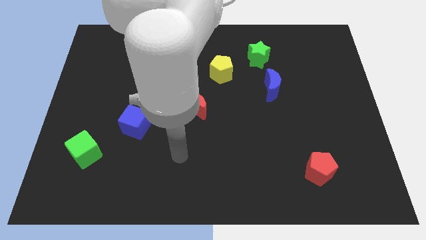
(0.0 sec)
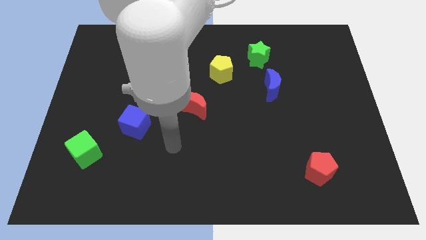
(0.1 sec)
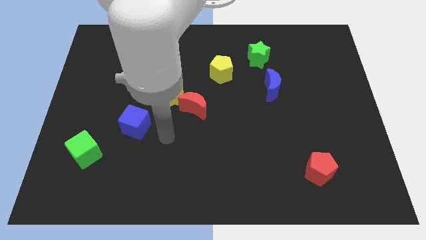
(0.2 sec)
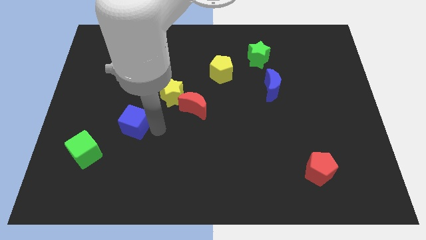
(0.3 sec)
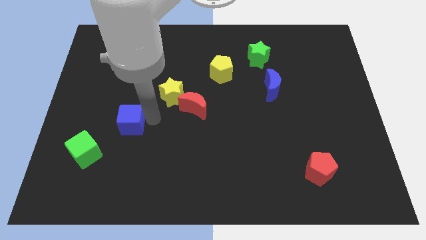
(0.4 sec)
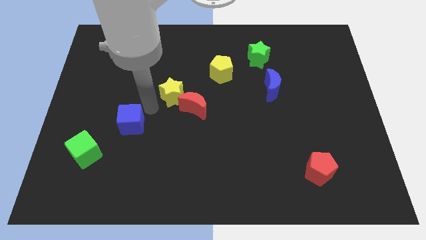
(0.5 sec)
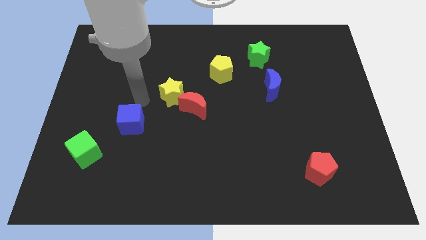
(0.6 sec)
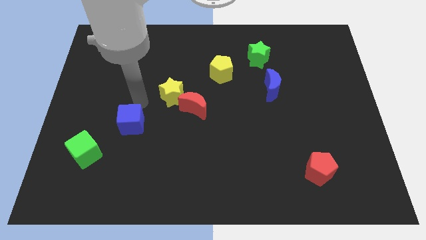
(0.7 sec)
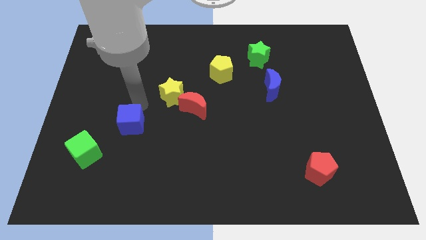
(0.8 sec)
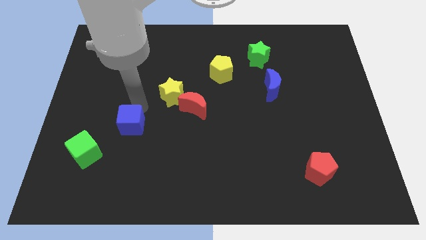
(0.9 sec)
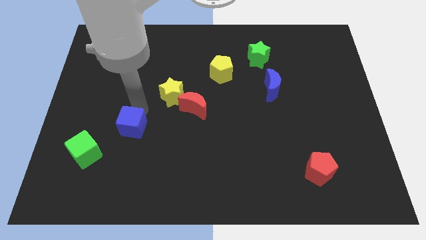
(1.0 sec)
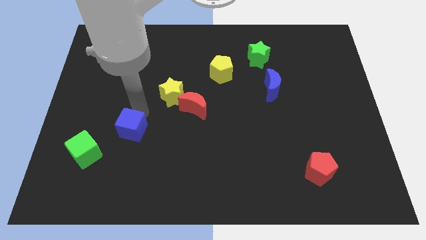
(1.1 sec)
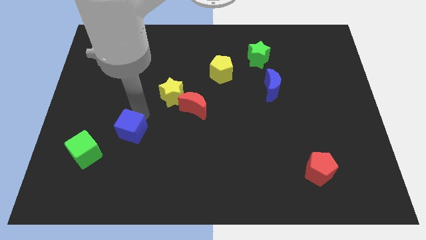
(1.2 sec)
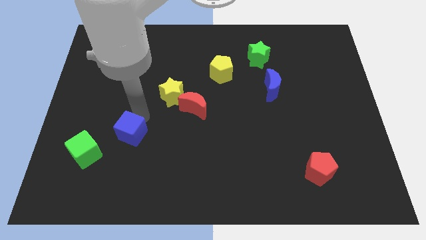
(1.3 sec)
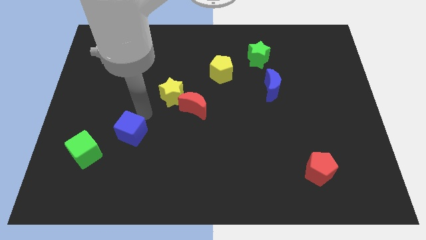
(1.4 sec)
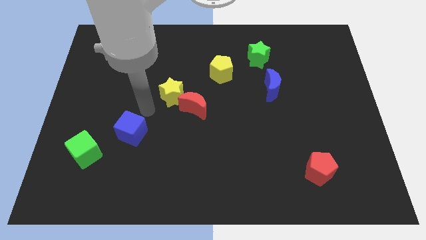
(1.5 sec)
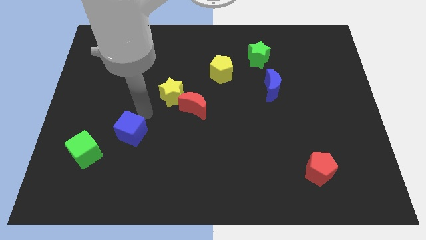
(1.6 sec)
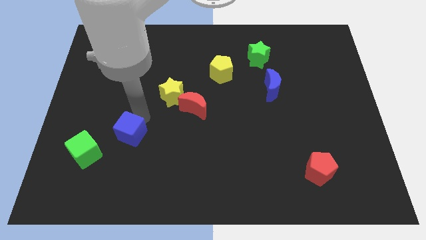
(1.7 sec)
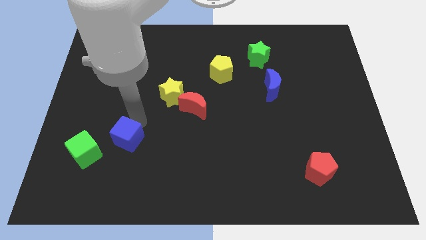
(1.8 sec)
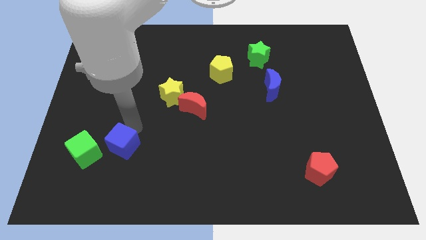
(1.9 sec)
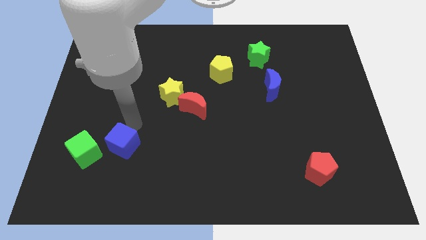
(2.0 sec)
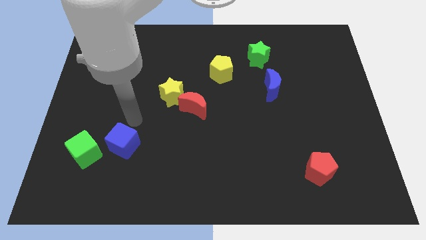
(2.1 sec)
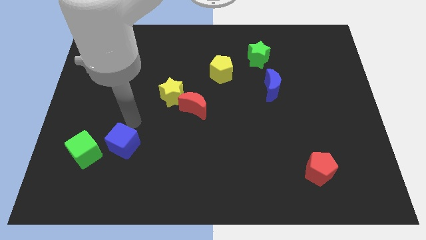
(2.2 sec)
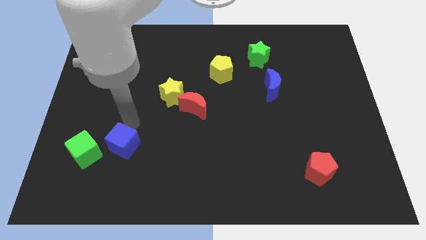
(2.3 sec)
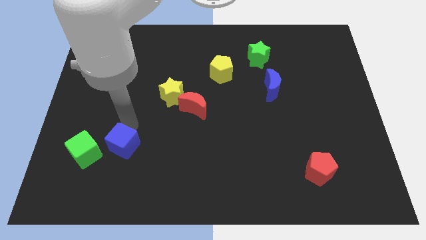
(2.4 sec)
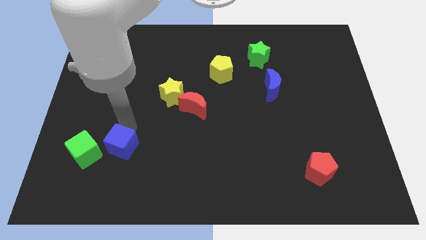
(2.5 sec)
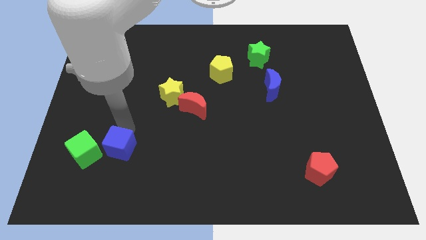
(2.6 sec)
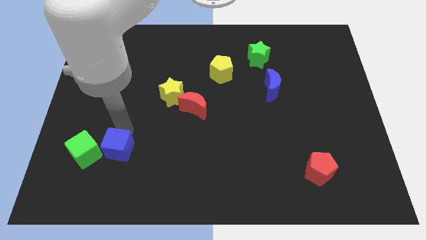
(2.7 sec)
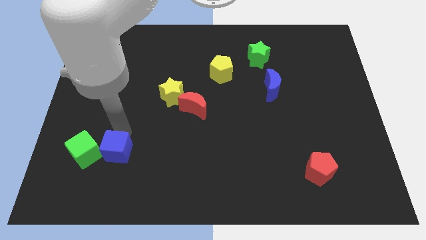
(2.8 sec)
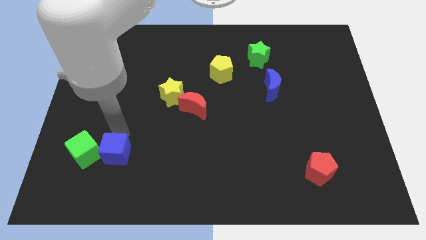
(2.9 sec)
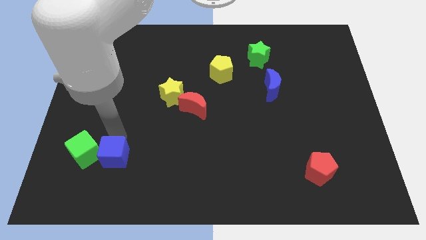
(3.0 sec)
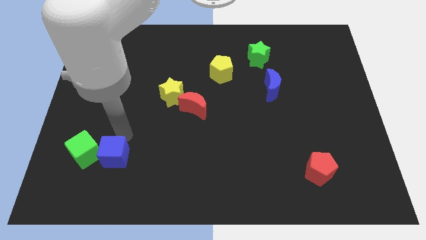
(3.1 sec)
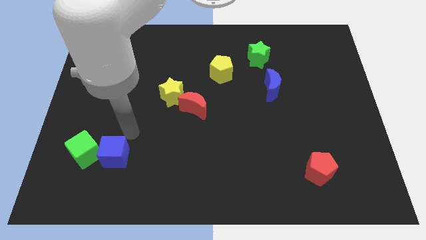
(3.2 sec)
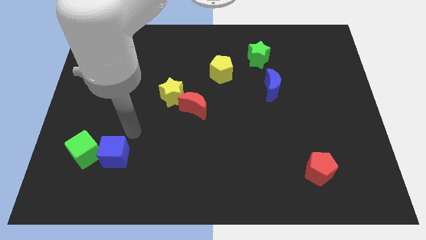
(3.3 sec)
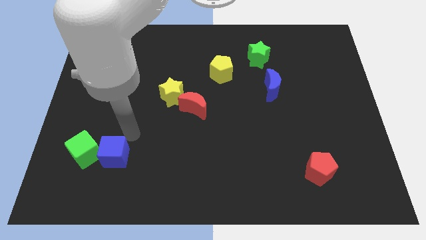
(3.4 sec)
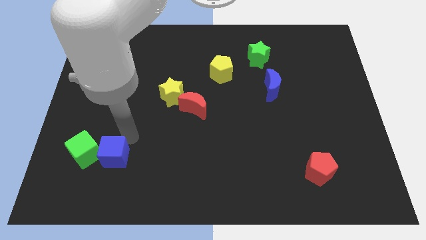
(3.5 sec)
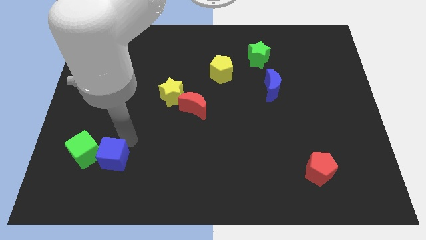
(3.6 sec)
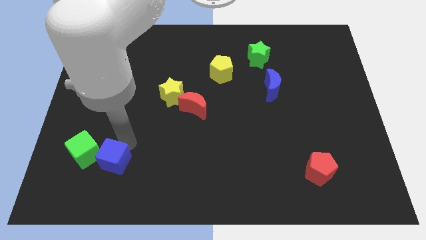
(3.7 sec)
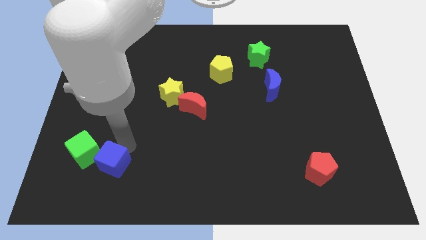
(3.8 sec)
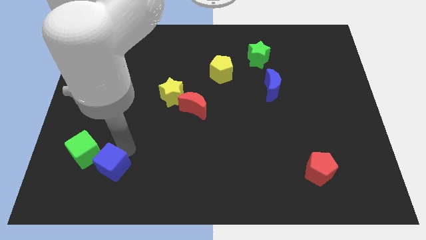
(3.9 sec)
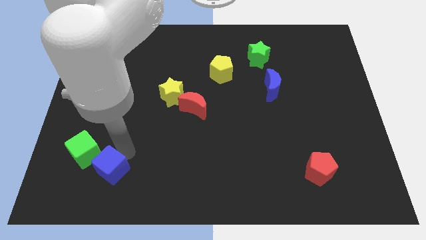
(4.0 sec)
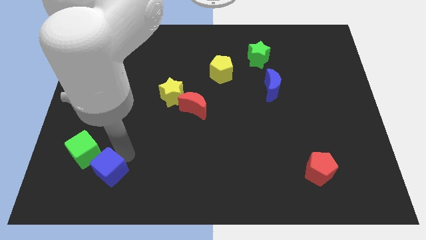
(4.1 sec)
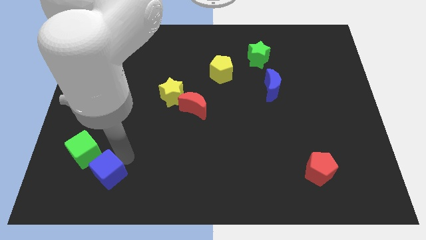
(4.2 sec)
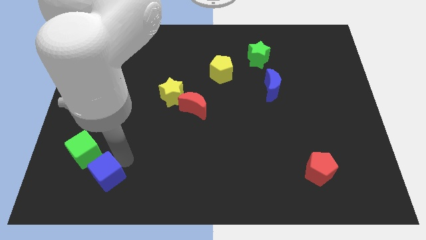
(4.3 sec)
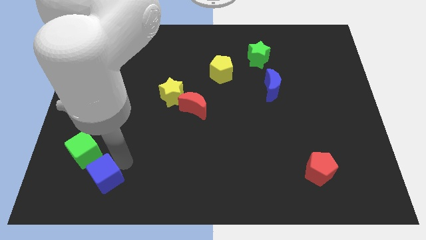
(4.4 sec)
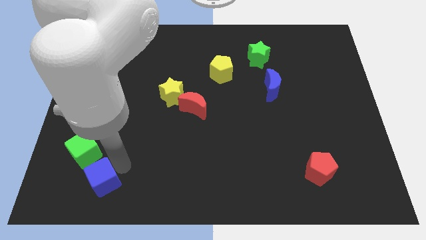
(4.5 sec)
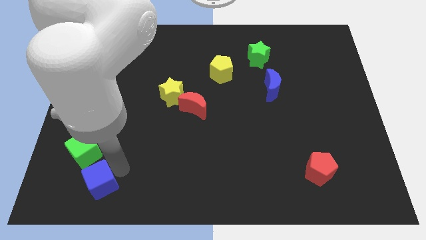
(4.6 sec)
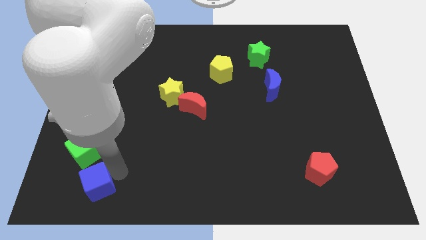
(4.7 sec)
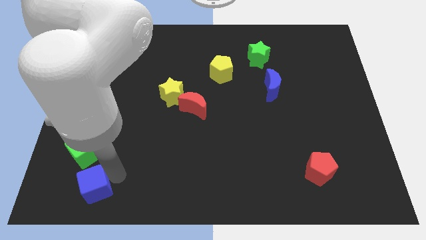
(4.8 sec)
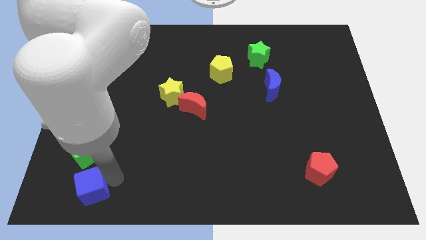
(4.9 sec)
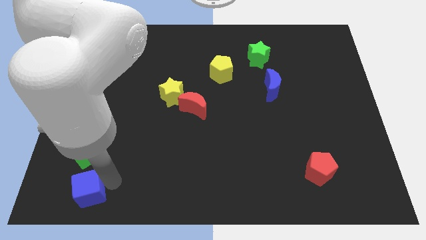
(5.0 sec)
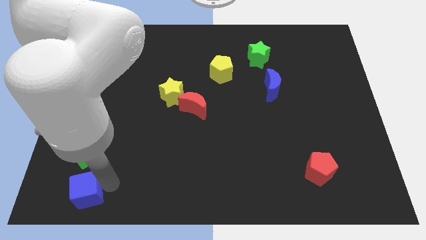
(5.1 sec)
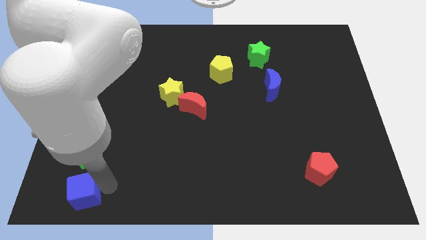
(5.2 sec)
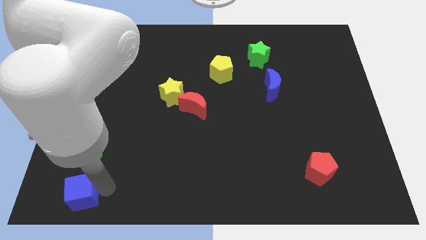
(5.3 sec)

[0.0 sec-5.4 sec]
slide the blue cube to the bottom left corner

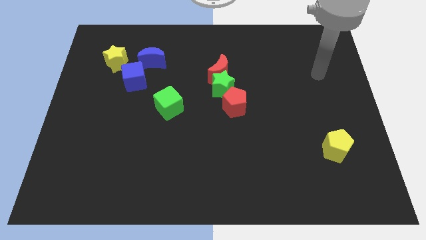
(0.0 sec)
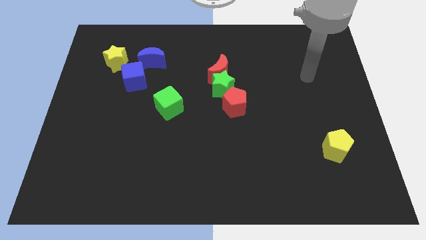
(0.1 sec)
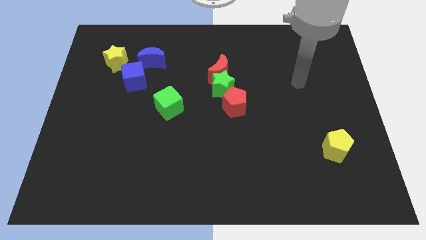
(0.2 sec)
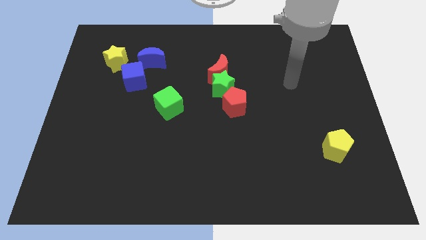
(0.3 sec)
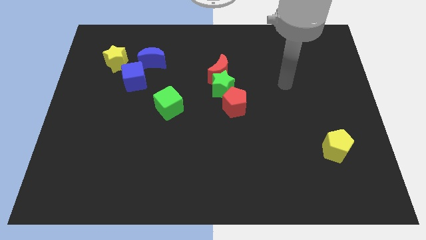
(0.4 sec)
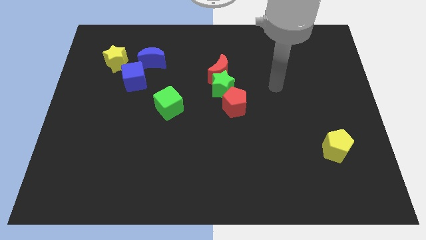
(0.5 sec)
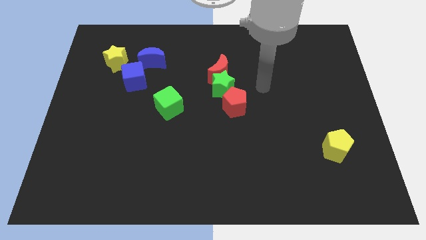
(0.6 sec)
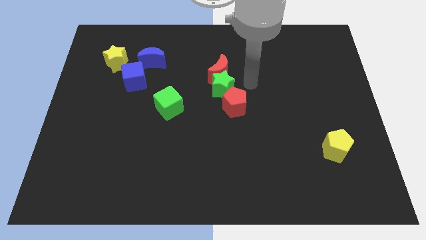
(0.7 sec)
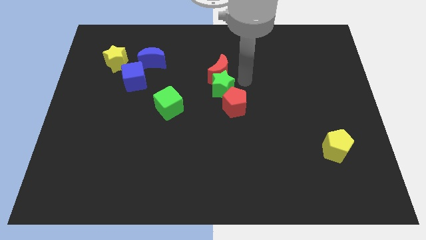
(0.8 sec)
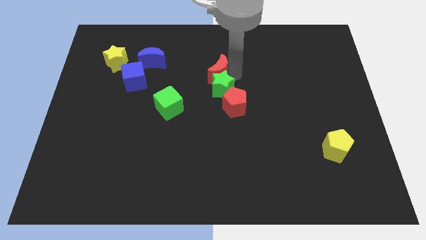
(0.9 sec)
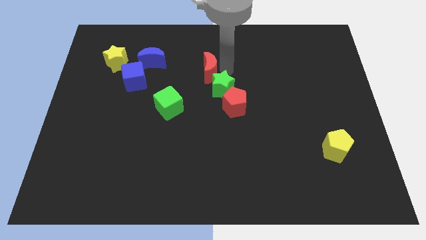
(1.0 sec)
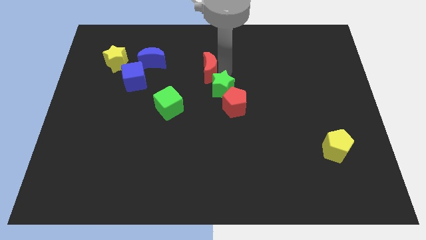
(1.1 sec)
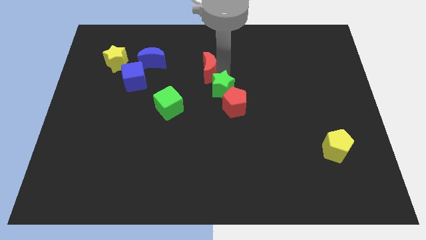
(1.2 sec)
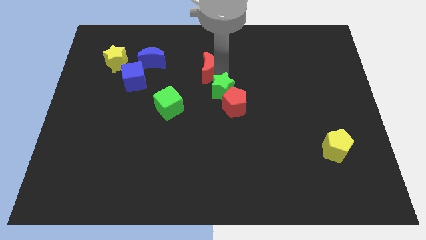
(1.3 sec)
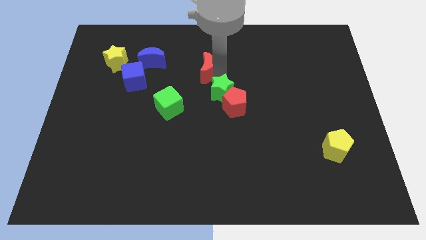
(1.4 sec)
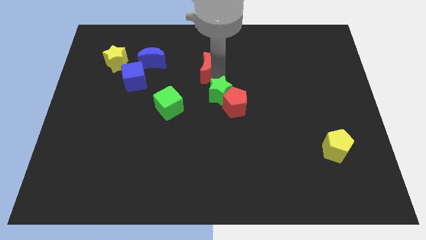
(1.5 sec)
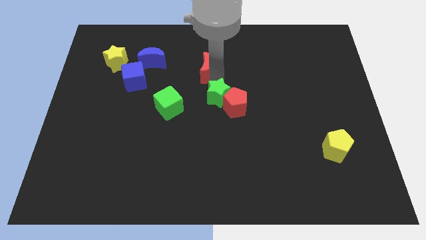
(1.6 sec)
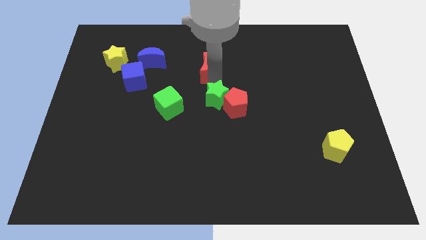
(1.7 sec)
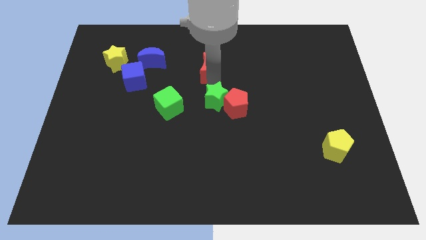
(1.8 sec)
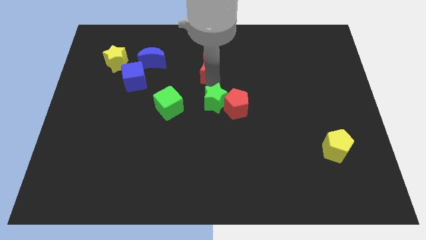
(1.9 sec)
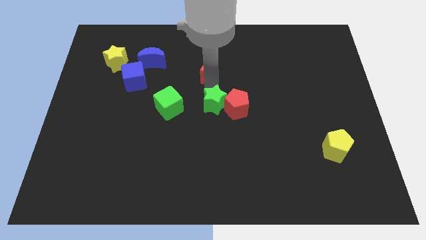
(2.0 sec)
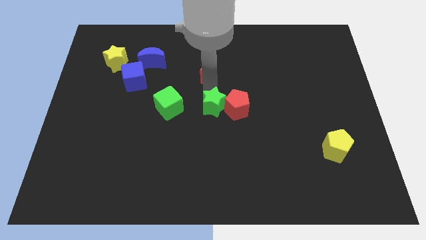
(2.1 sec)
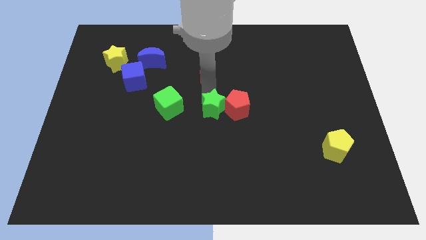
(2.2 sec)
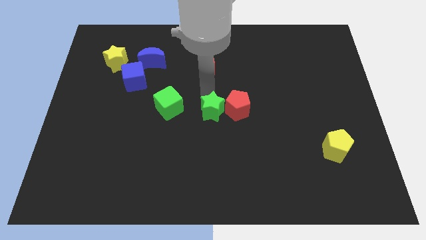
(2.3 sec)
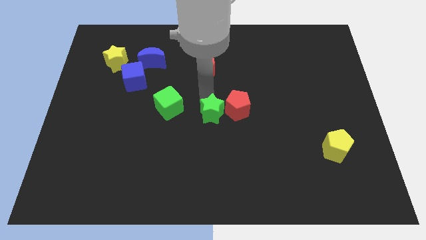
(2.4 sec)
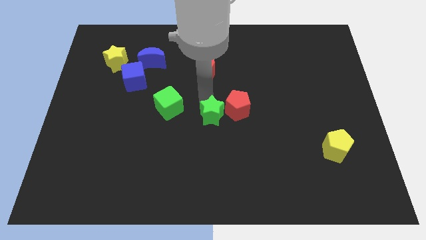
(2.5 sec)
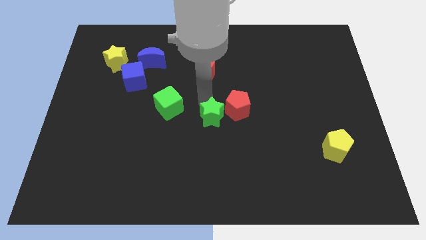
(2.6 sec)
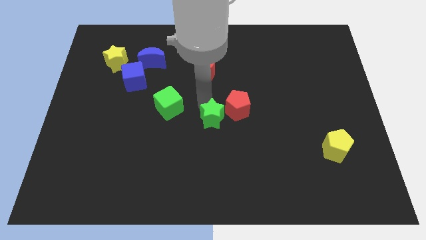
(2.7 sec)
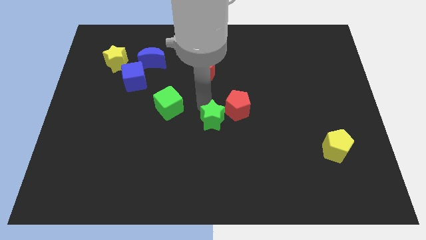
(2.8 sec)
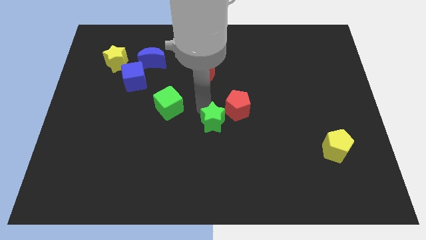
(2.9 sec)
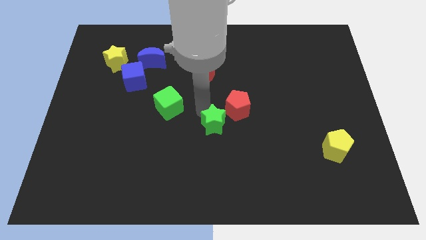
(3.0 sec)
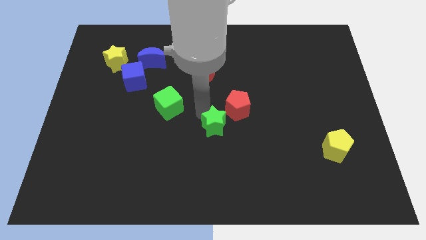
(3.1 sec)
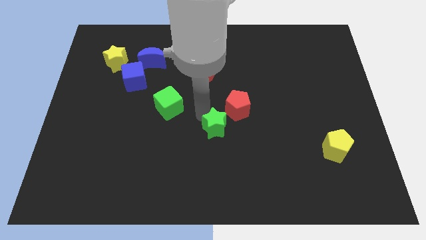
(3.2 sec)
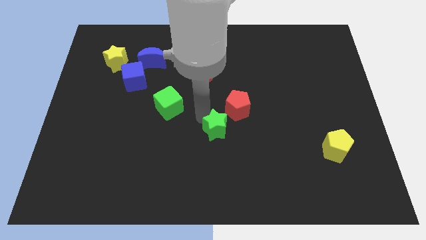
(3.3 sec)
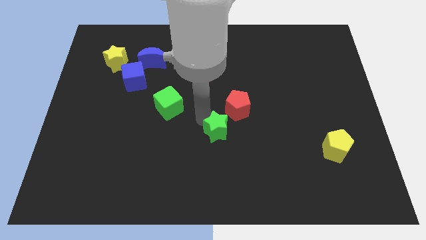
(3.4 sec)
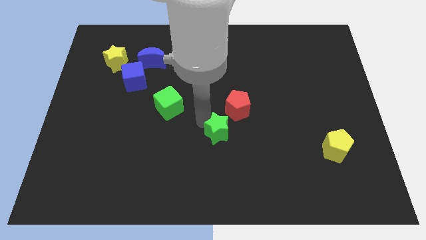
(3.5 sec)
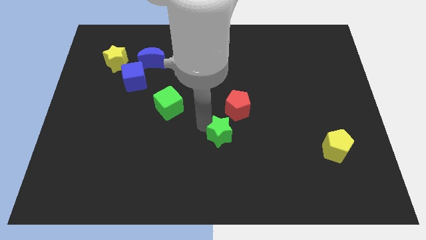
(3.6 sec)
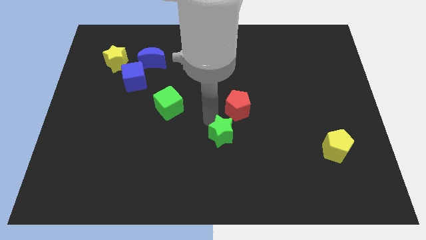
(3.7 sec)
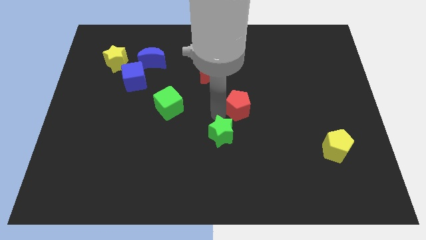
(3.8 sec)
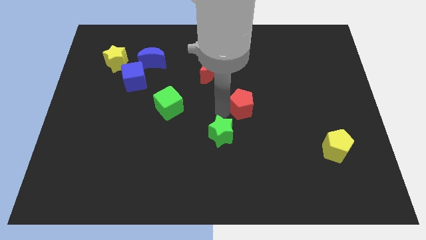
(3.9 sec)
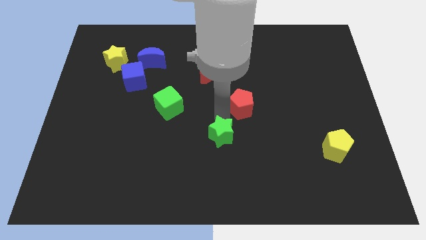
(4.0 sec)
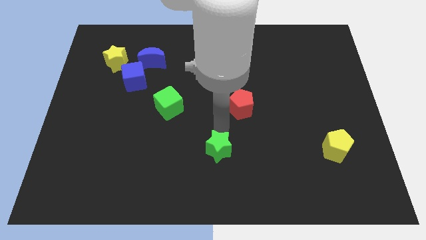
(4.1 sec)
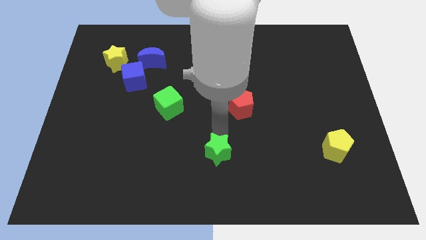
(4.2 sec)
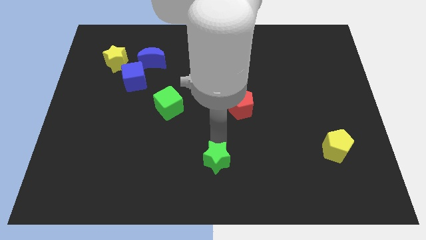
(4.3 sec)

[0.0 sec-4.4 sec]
put the green star to the bottom
